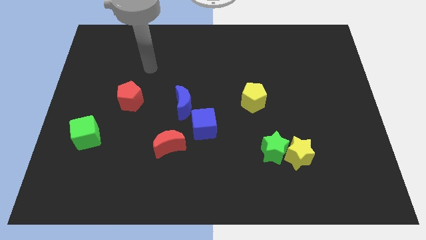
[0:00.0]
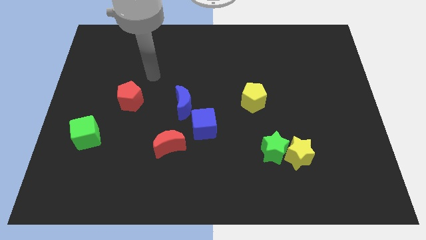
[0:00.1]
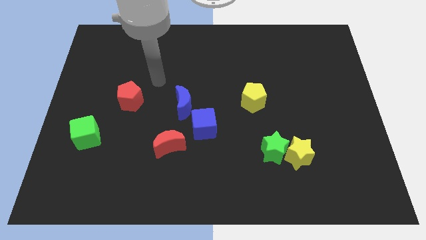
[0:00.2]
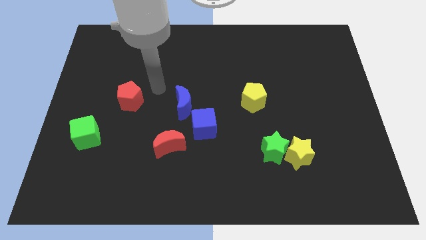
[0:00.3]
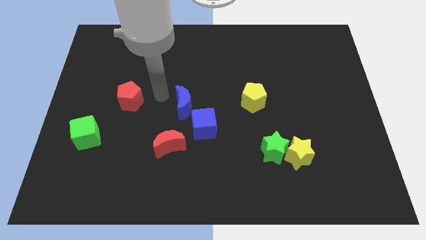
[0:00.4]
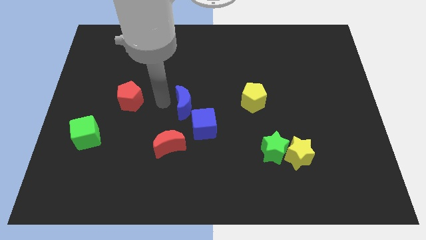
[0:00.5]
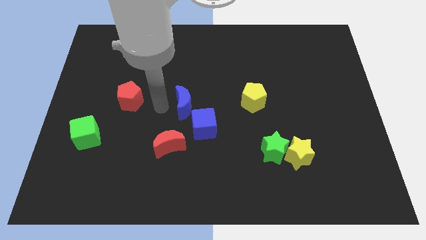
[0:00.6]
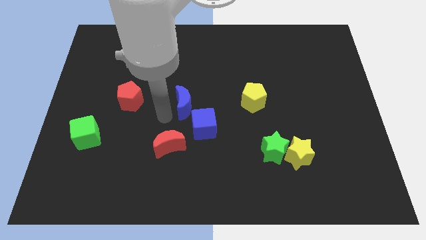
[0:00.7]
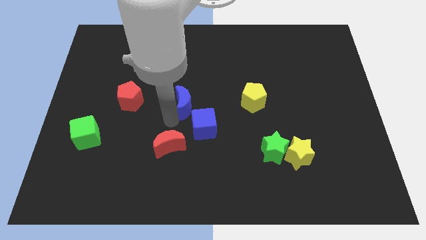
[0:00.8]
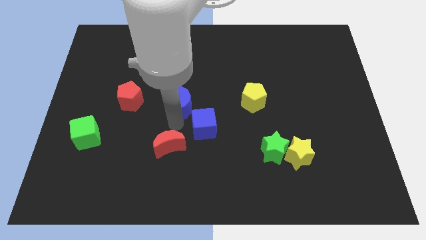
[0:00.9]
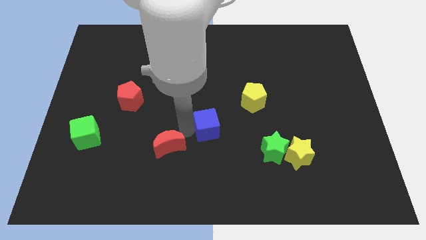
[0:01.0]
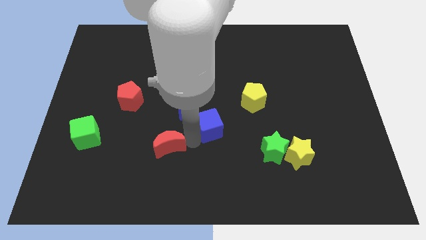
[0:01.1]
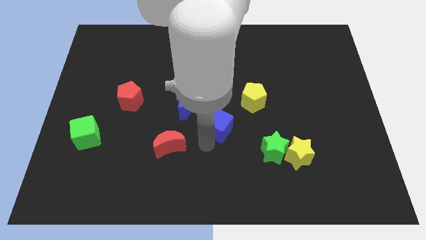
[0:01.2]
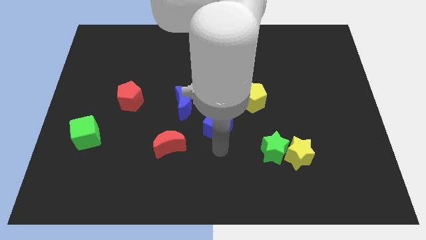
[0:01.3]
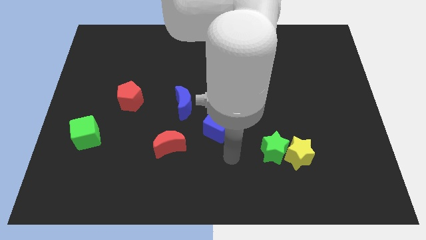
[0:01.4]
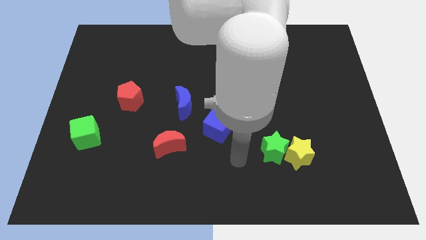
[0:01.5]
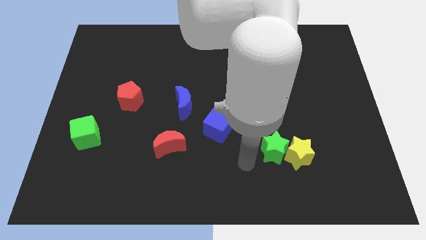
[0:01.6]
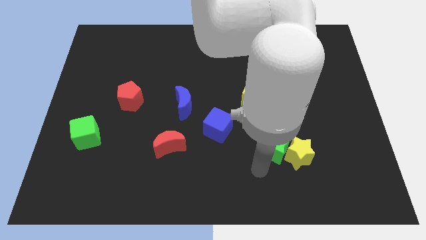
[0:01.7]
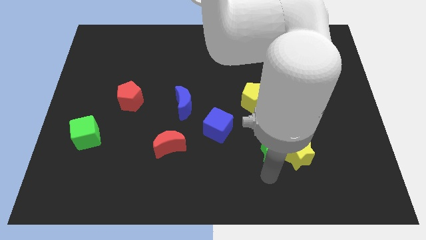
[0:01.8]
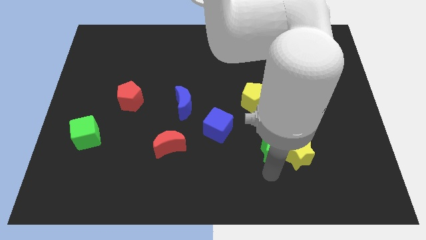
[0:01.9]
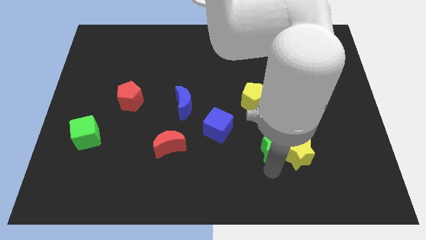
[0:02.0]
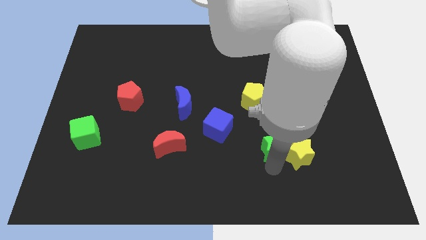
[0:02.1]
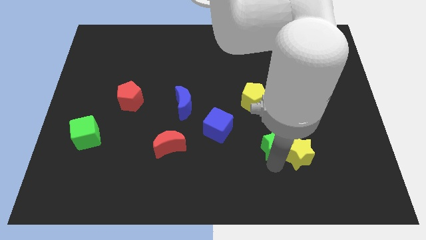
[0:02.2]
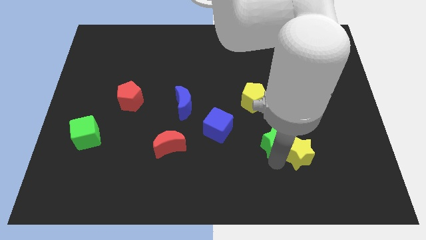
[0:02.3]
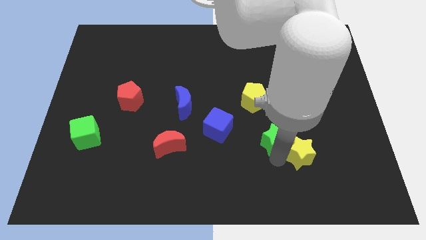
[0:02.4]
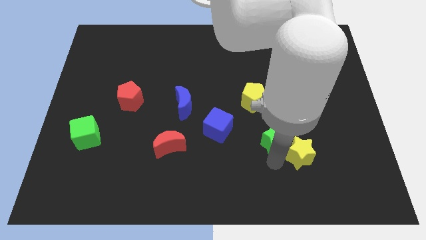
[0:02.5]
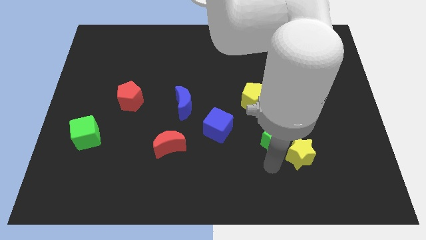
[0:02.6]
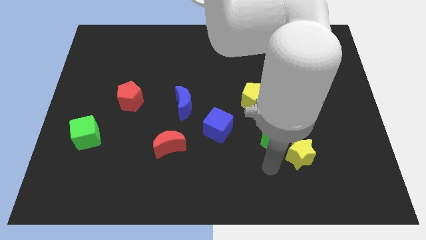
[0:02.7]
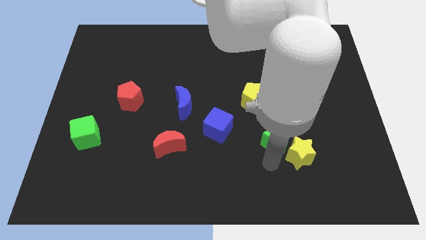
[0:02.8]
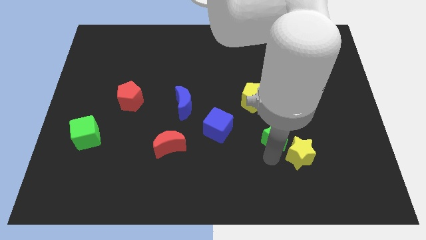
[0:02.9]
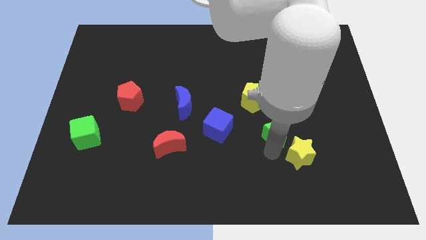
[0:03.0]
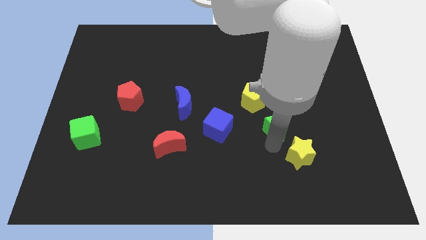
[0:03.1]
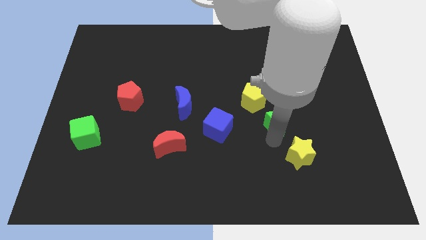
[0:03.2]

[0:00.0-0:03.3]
move the green star a little upwards

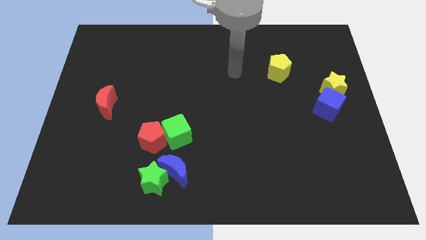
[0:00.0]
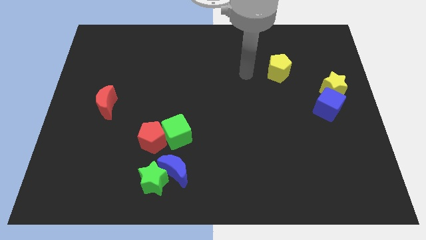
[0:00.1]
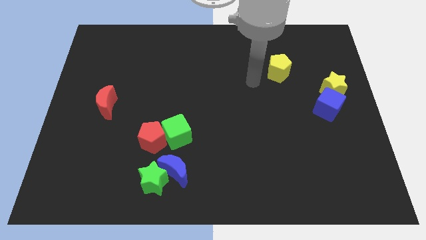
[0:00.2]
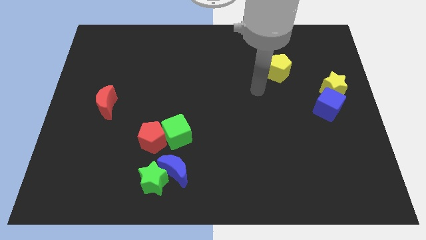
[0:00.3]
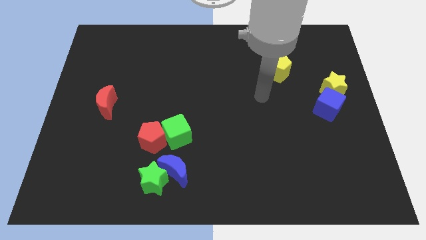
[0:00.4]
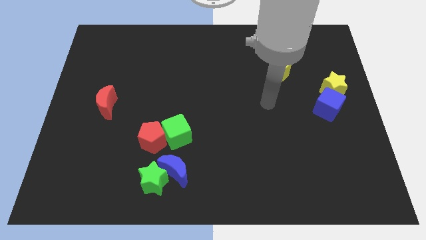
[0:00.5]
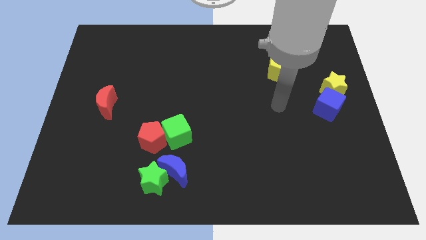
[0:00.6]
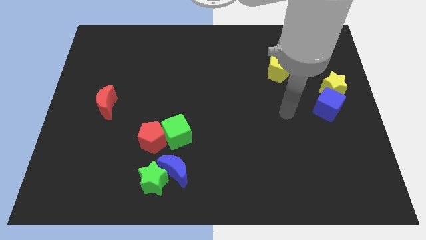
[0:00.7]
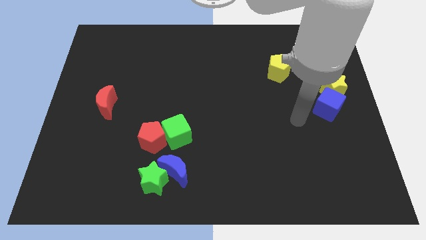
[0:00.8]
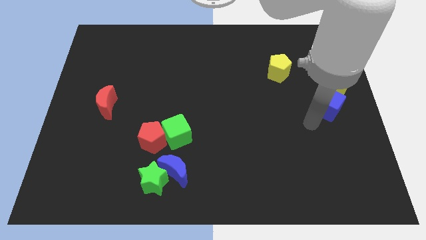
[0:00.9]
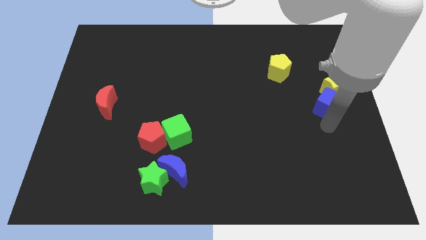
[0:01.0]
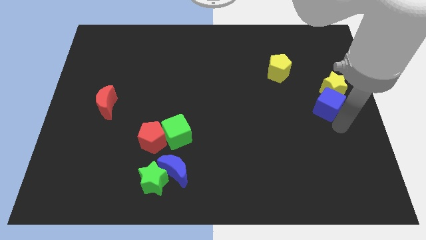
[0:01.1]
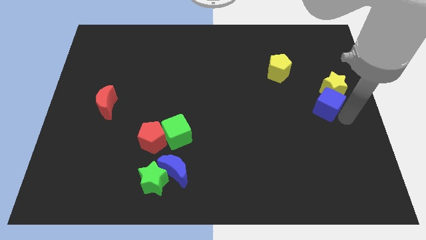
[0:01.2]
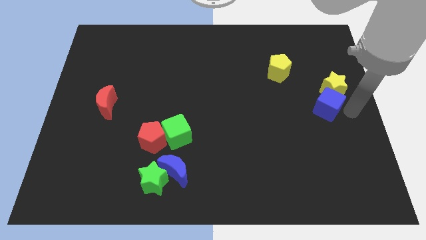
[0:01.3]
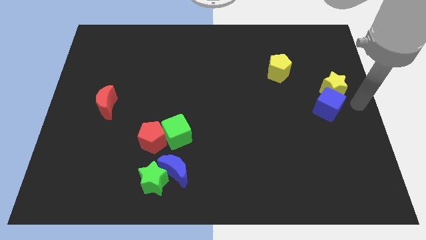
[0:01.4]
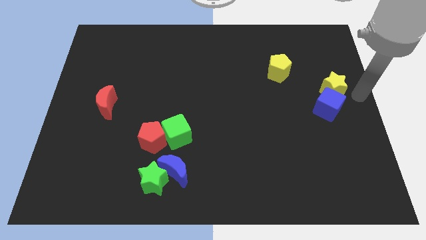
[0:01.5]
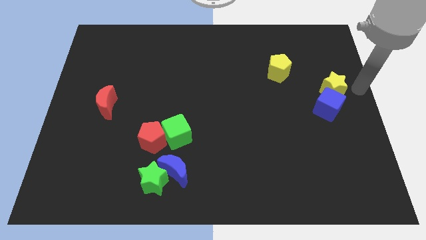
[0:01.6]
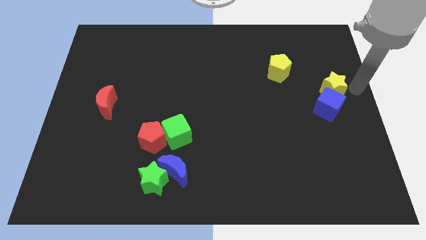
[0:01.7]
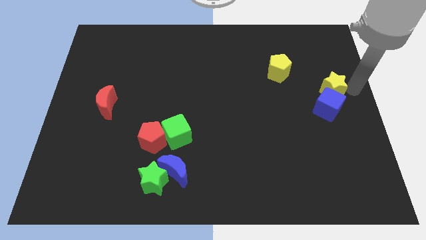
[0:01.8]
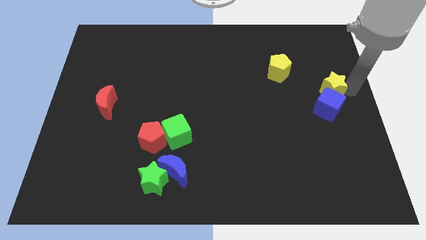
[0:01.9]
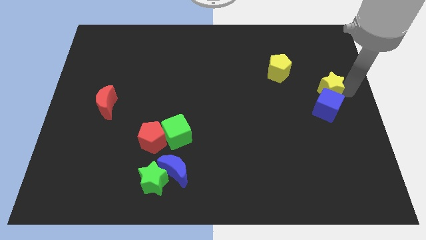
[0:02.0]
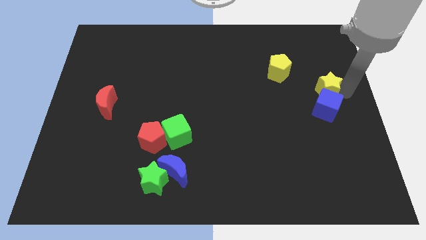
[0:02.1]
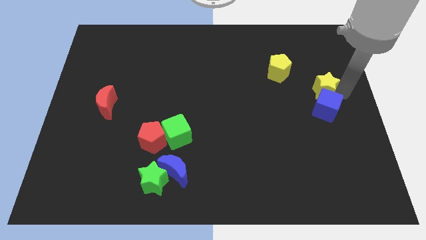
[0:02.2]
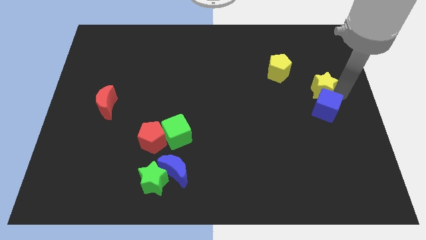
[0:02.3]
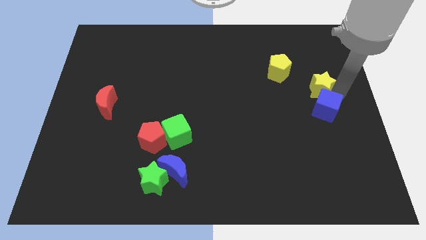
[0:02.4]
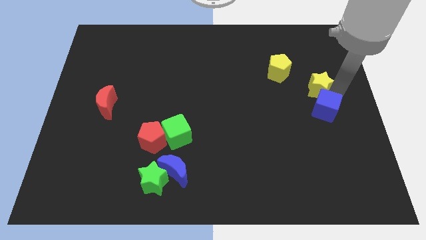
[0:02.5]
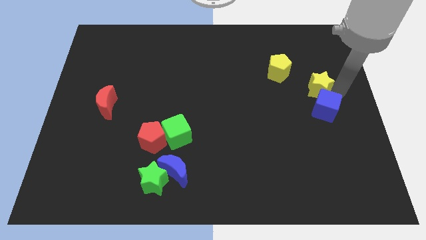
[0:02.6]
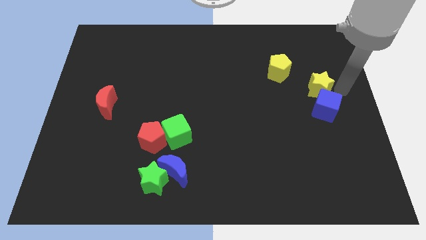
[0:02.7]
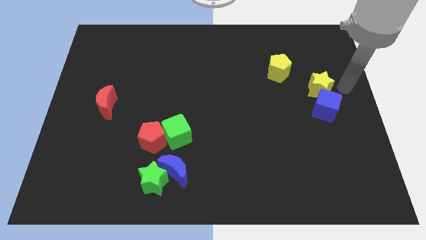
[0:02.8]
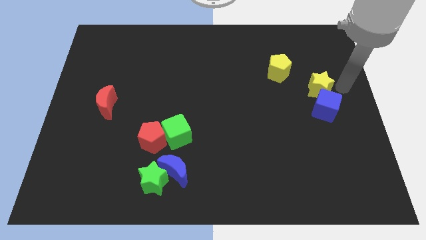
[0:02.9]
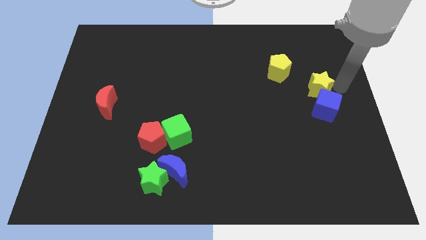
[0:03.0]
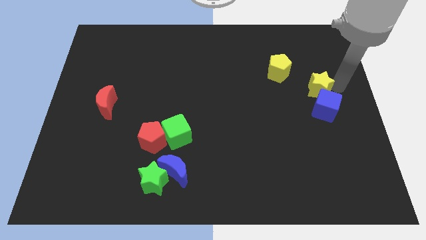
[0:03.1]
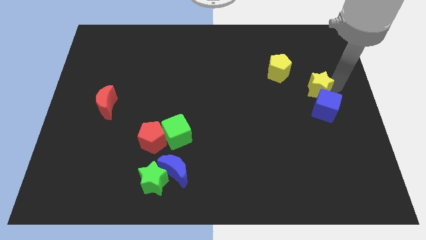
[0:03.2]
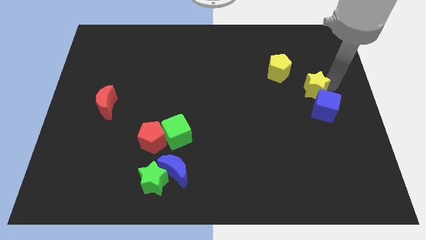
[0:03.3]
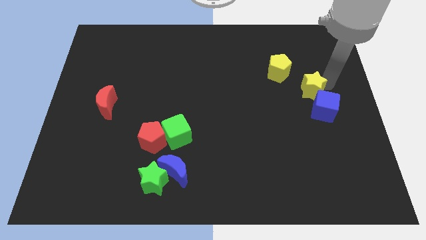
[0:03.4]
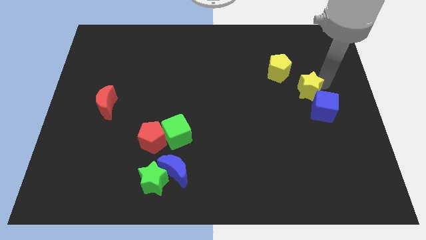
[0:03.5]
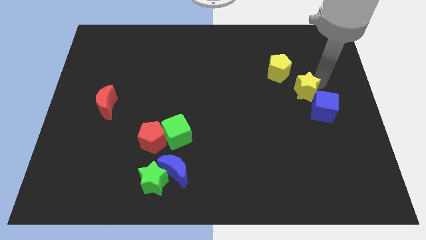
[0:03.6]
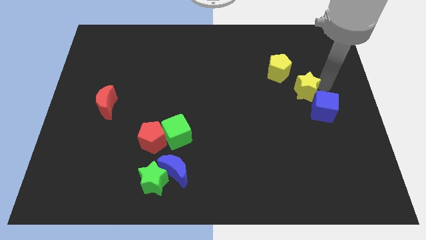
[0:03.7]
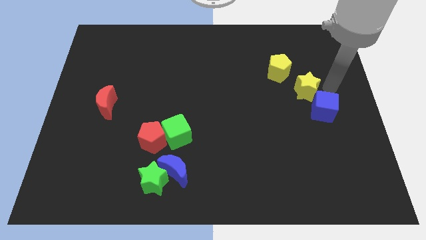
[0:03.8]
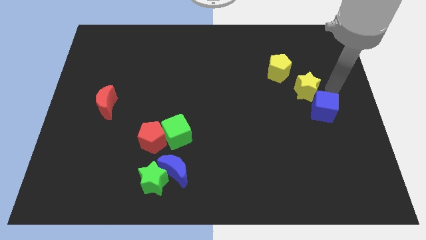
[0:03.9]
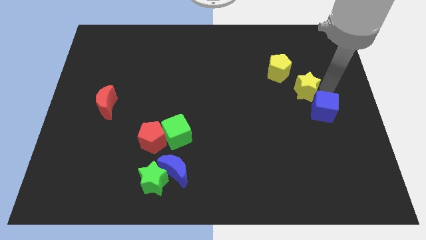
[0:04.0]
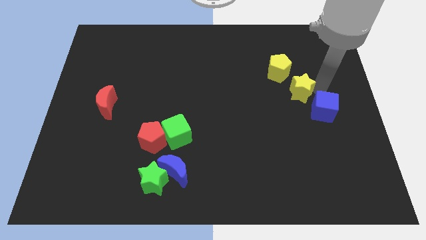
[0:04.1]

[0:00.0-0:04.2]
slightly slide the yellow star left

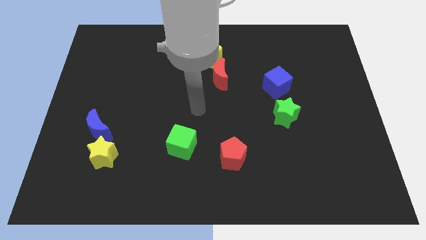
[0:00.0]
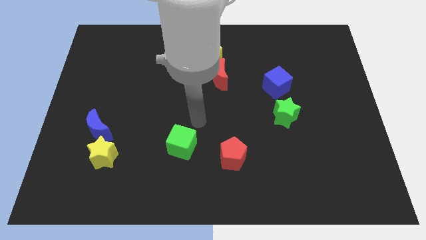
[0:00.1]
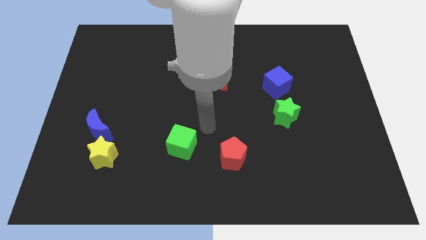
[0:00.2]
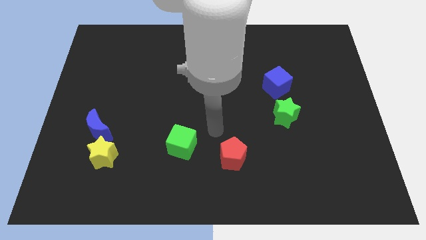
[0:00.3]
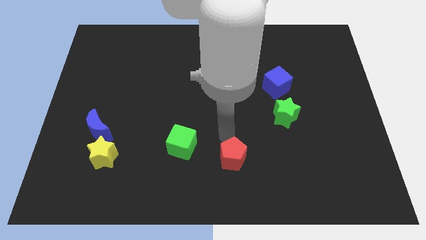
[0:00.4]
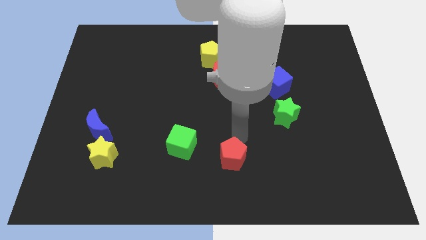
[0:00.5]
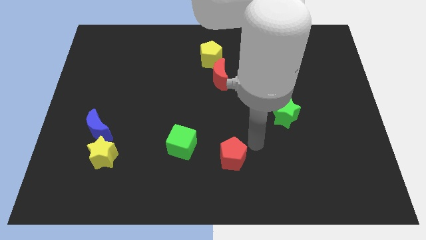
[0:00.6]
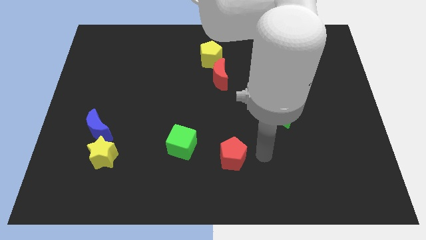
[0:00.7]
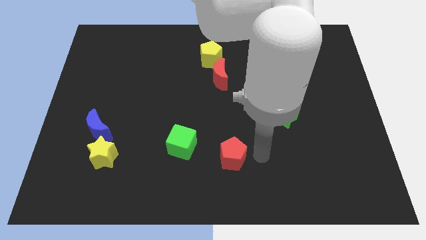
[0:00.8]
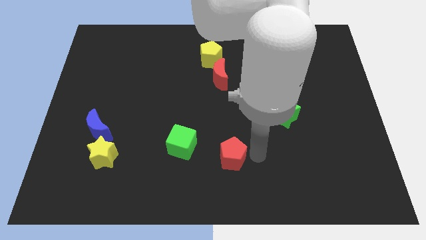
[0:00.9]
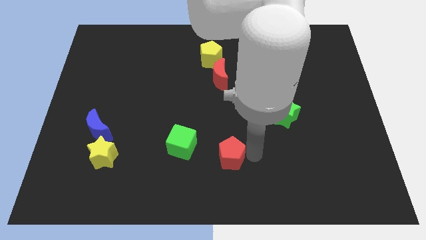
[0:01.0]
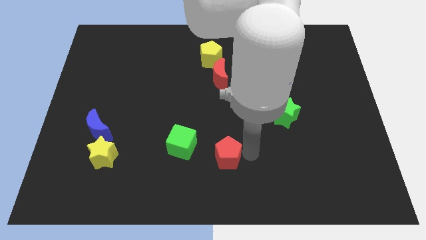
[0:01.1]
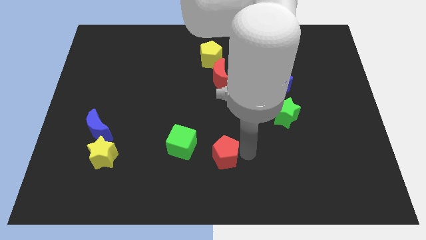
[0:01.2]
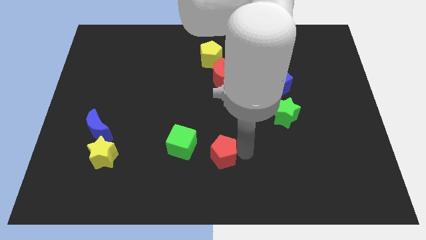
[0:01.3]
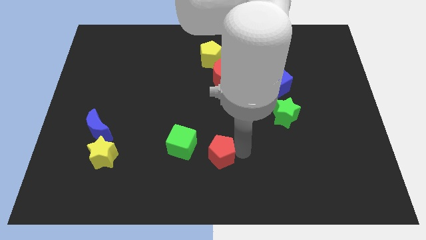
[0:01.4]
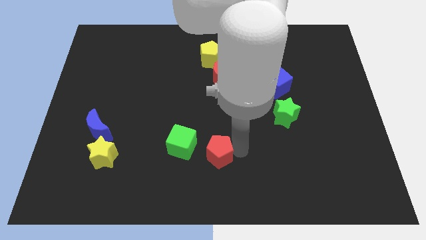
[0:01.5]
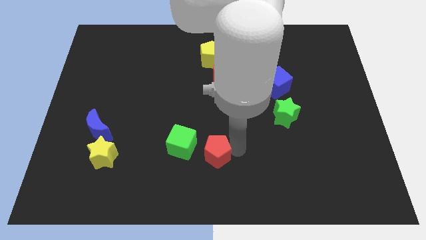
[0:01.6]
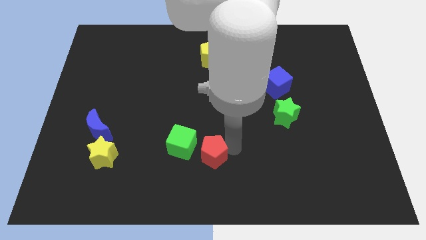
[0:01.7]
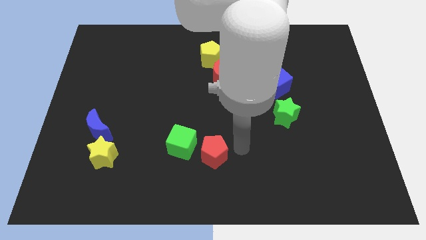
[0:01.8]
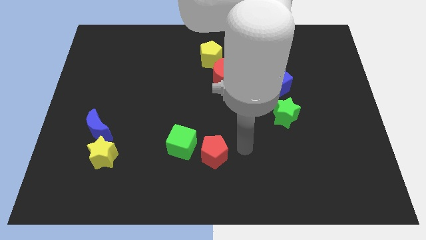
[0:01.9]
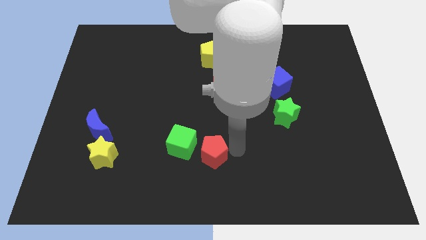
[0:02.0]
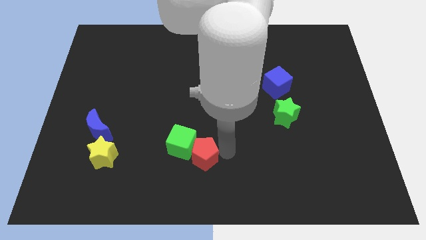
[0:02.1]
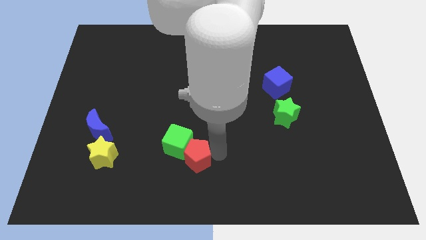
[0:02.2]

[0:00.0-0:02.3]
slide the red pentagon a little to the left
